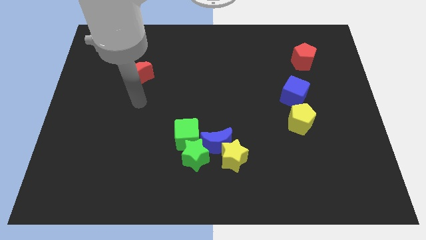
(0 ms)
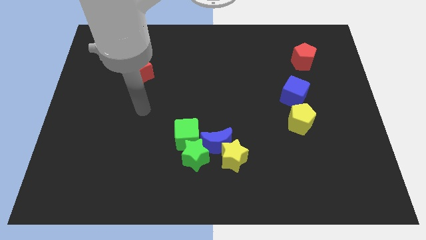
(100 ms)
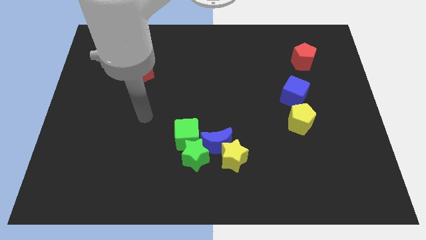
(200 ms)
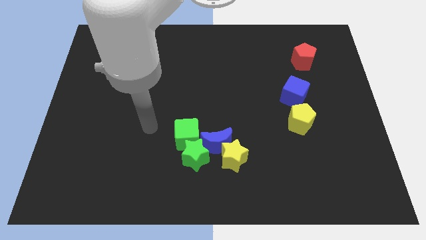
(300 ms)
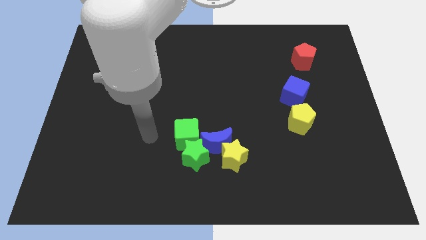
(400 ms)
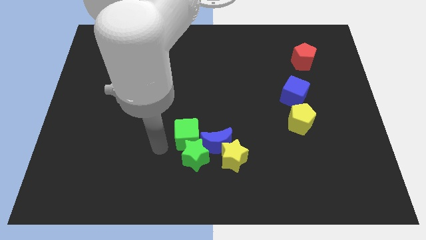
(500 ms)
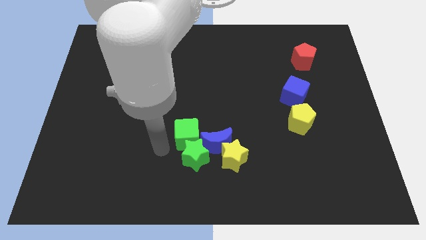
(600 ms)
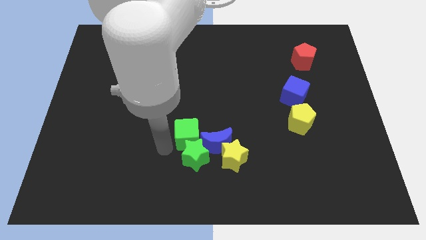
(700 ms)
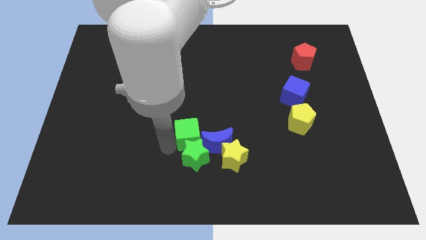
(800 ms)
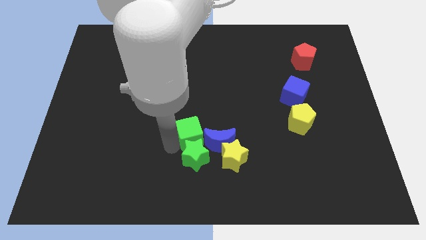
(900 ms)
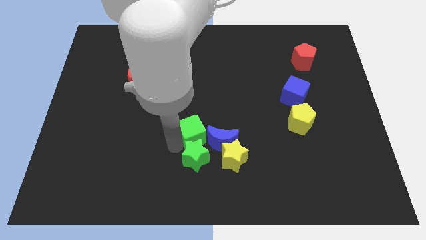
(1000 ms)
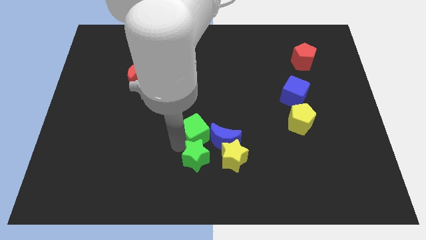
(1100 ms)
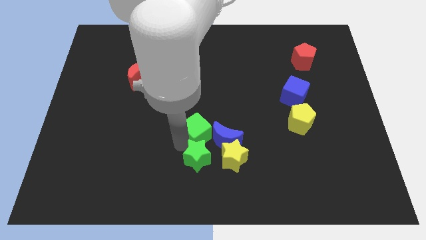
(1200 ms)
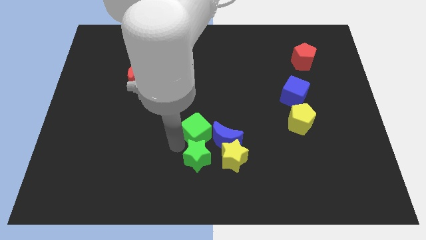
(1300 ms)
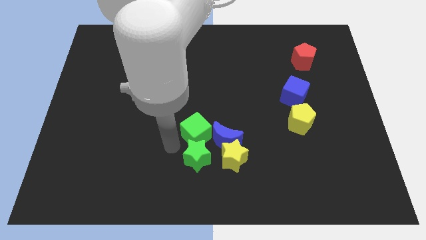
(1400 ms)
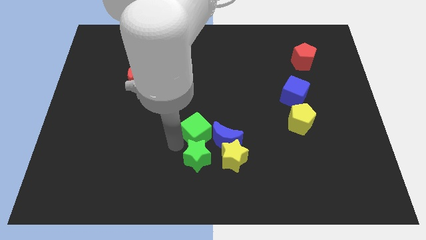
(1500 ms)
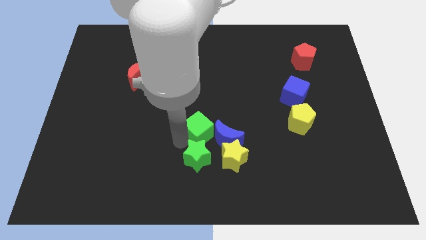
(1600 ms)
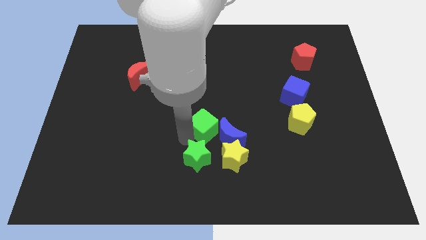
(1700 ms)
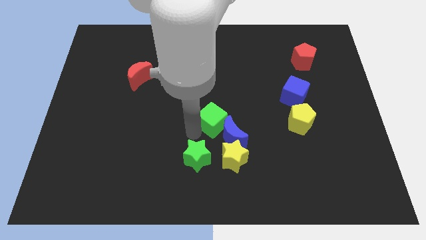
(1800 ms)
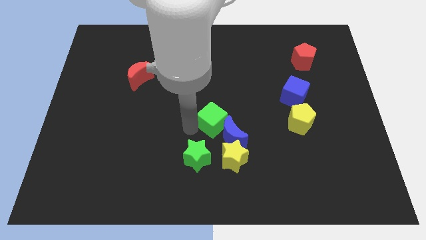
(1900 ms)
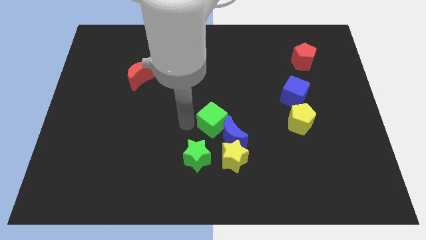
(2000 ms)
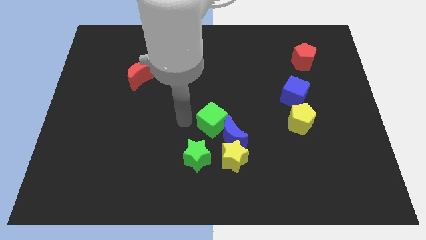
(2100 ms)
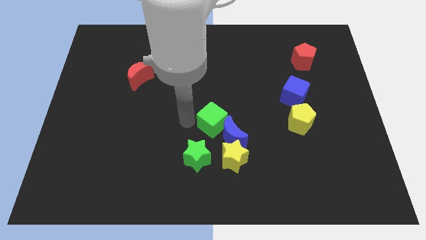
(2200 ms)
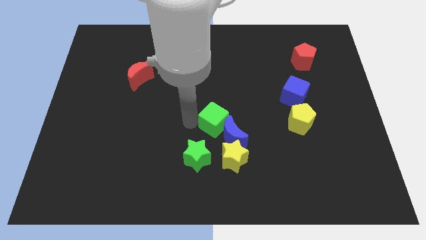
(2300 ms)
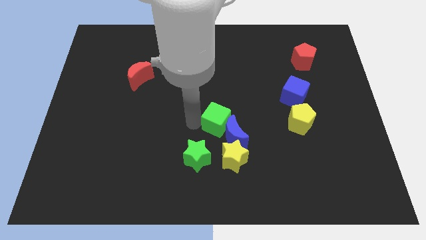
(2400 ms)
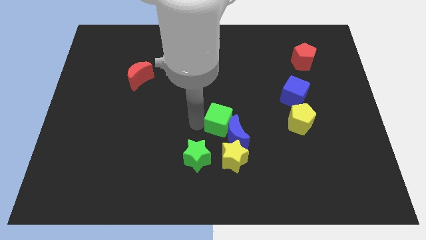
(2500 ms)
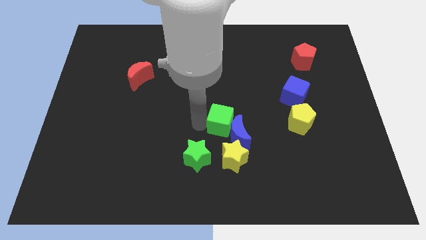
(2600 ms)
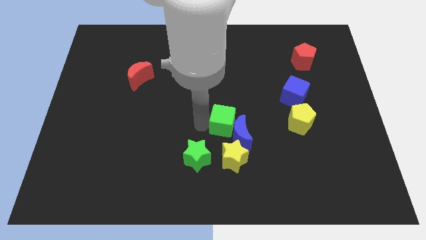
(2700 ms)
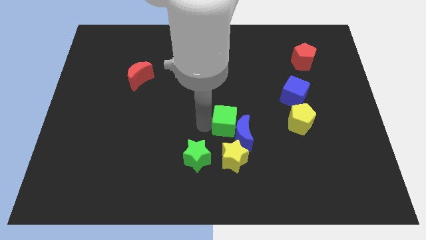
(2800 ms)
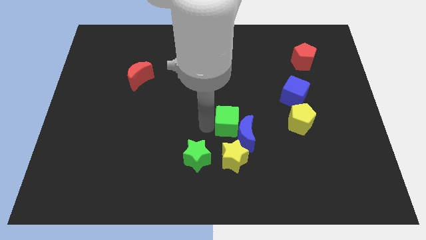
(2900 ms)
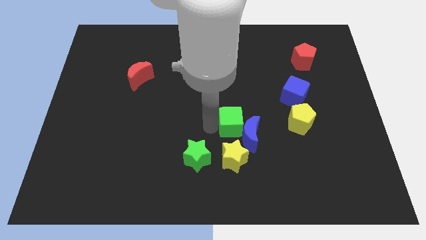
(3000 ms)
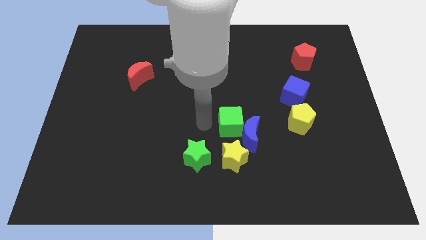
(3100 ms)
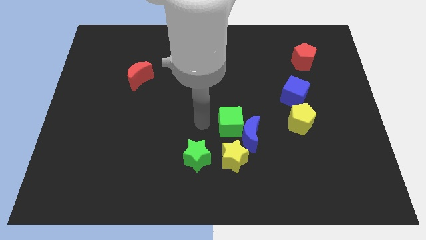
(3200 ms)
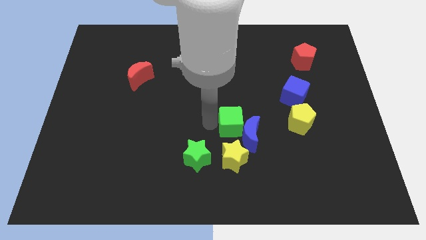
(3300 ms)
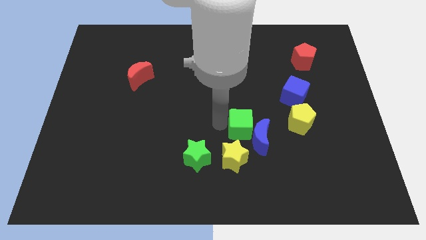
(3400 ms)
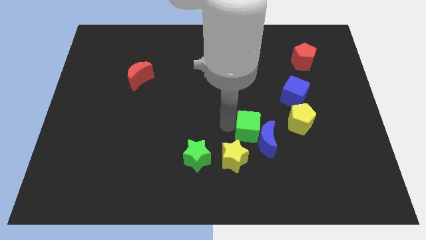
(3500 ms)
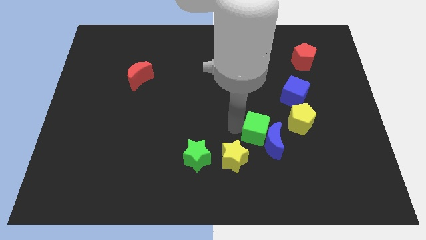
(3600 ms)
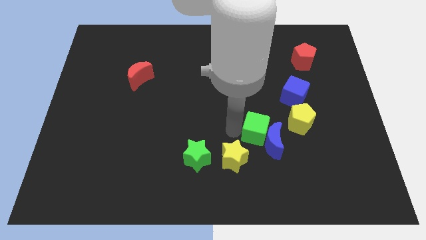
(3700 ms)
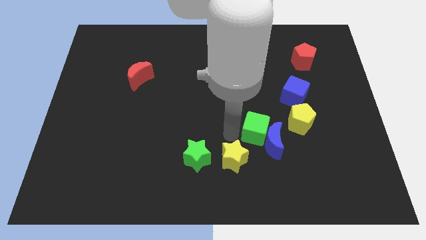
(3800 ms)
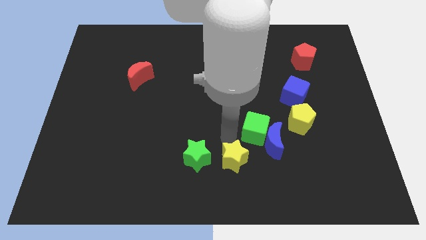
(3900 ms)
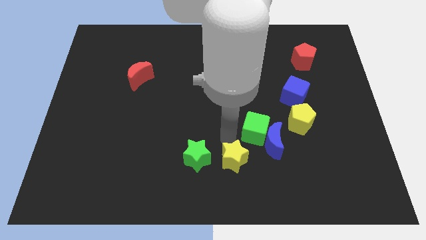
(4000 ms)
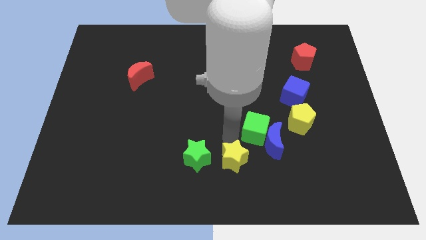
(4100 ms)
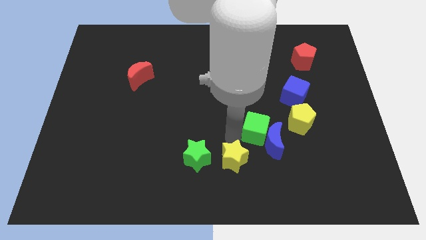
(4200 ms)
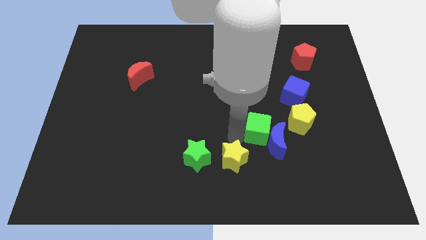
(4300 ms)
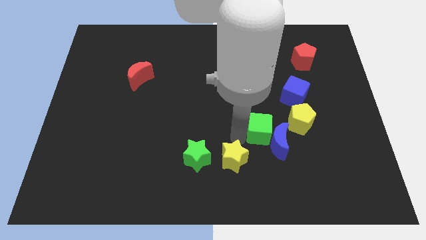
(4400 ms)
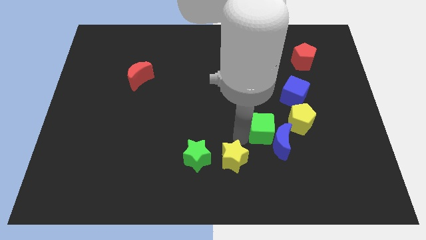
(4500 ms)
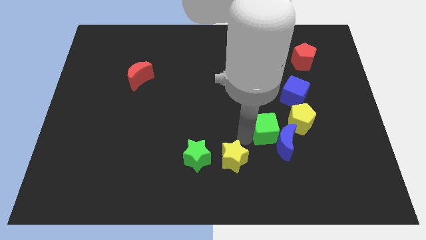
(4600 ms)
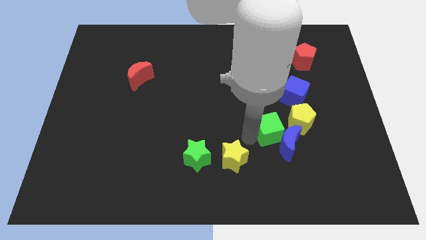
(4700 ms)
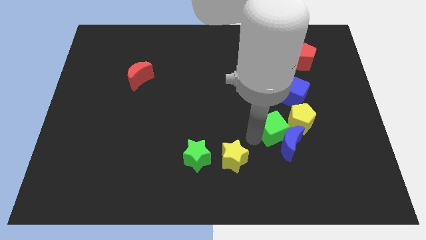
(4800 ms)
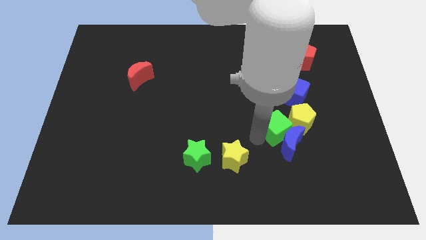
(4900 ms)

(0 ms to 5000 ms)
move the green cube towards the yellow pentagon

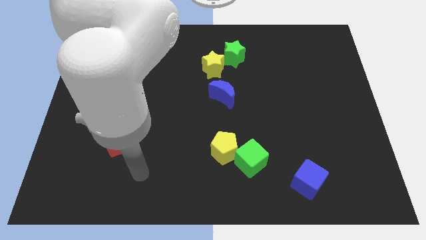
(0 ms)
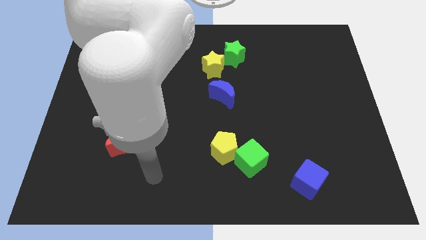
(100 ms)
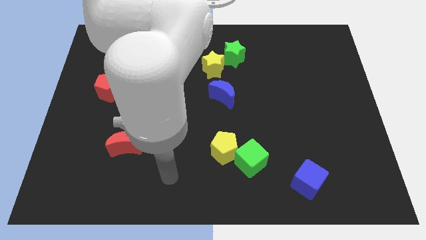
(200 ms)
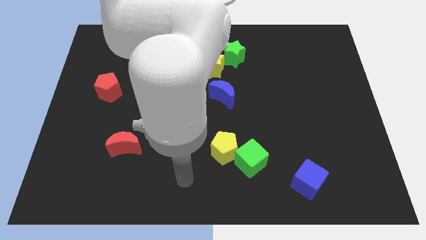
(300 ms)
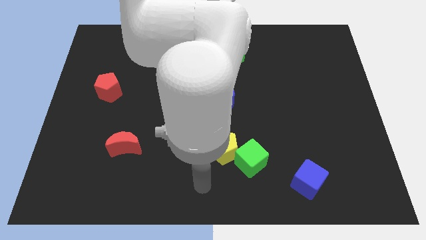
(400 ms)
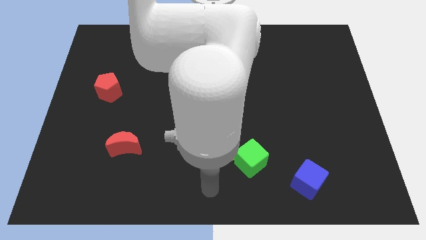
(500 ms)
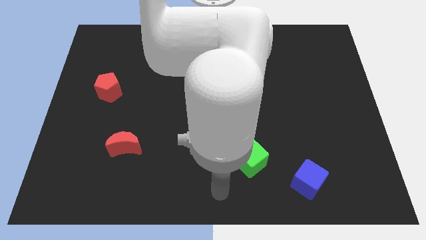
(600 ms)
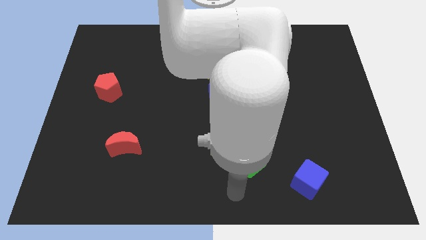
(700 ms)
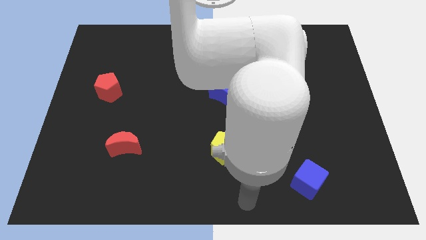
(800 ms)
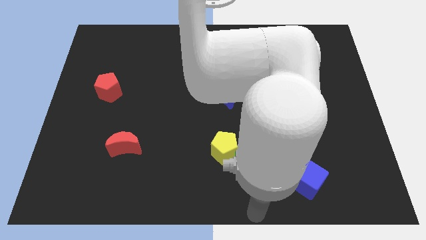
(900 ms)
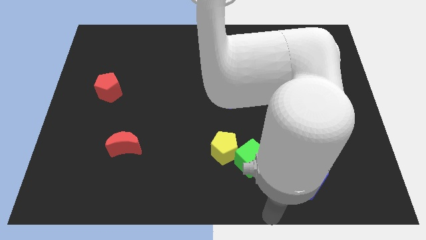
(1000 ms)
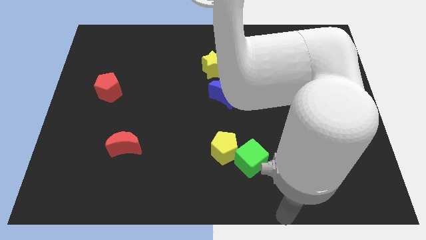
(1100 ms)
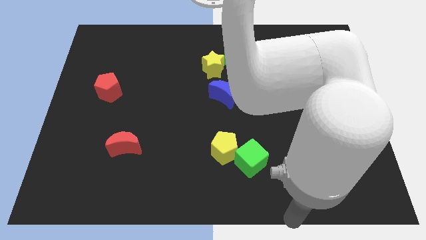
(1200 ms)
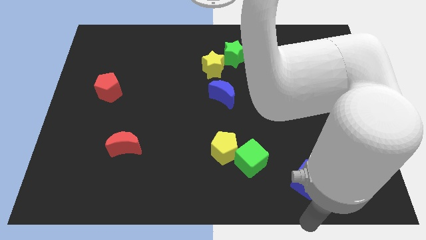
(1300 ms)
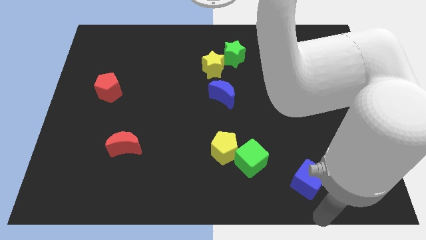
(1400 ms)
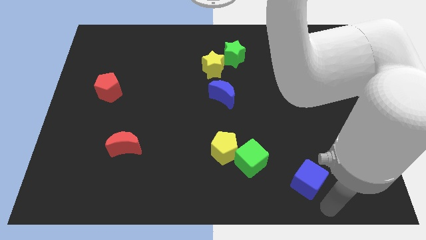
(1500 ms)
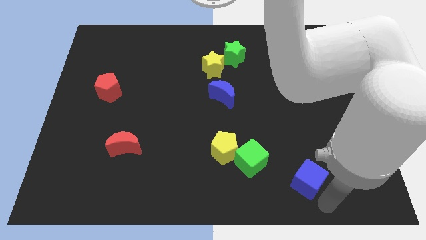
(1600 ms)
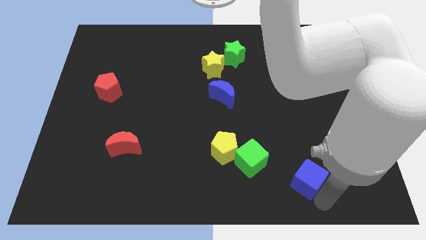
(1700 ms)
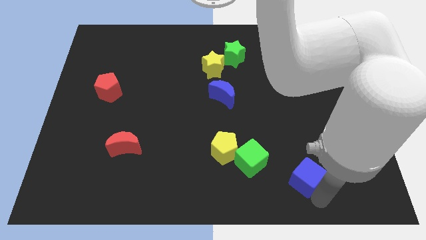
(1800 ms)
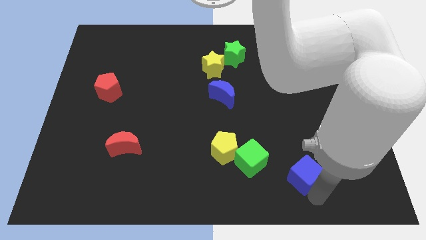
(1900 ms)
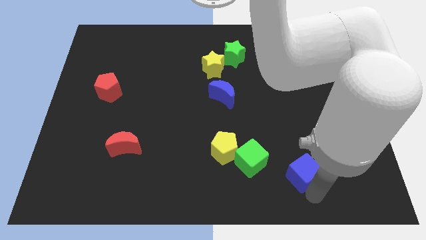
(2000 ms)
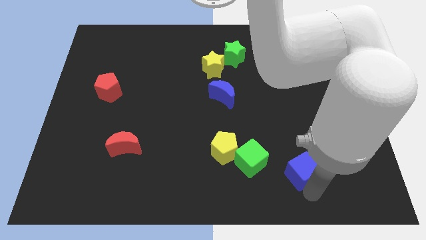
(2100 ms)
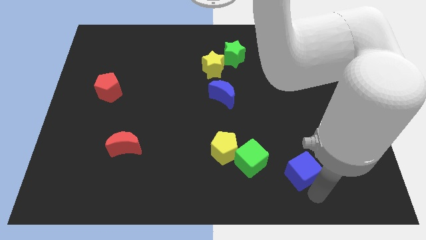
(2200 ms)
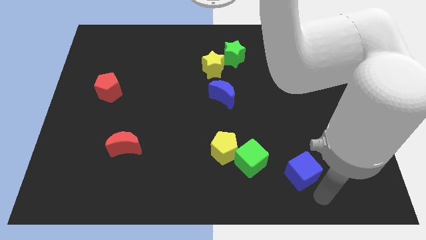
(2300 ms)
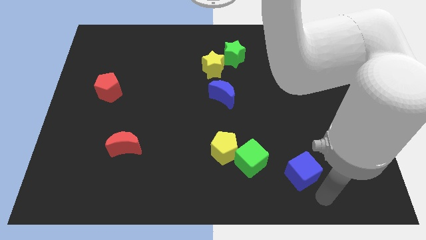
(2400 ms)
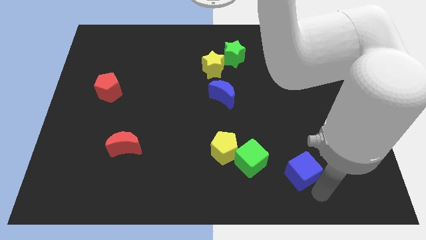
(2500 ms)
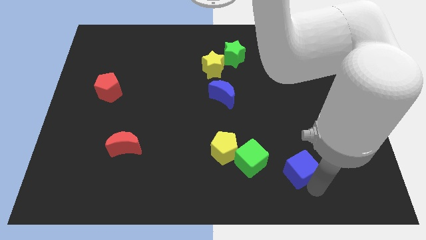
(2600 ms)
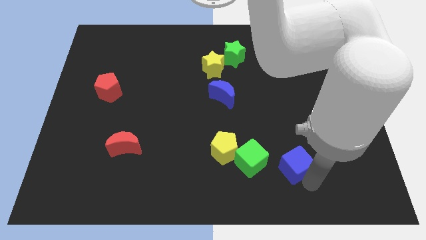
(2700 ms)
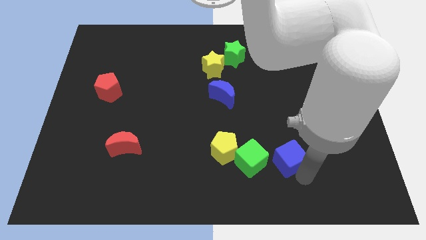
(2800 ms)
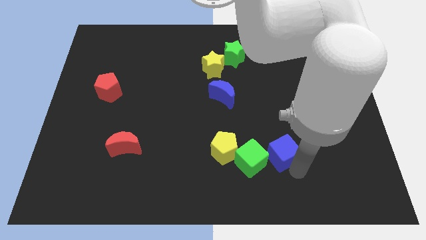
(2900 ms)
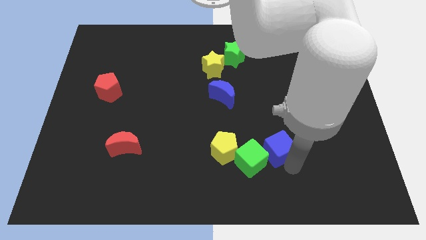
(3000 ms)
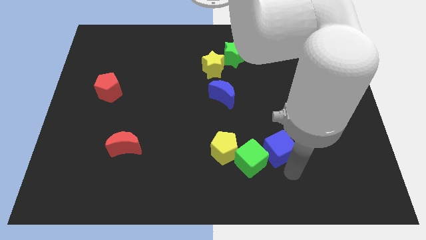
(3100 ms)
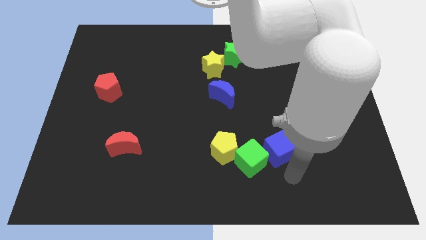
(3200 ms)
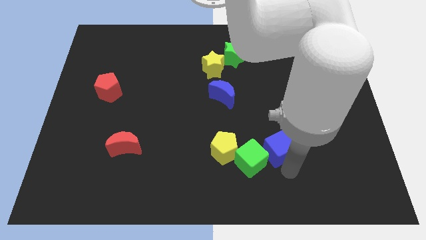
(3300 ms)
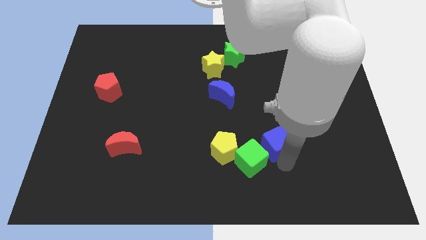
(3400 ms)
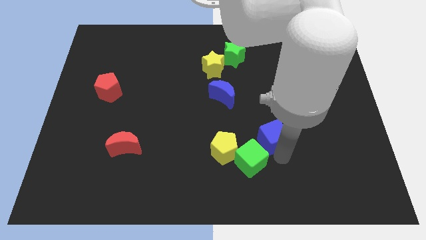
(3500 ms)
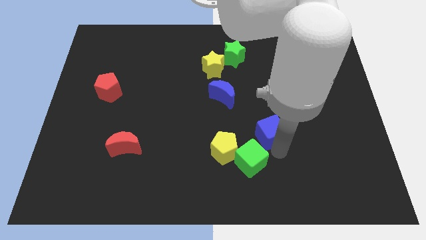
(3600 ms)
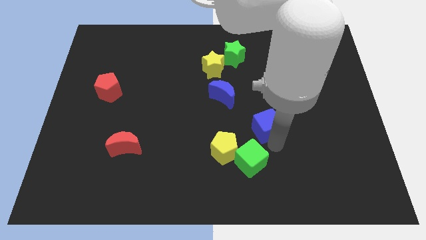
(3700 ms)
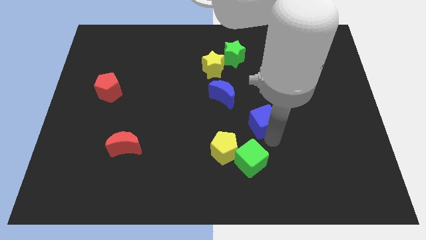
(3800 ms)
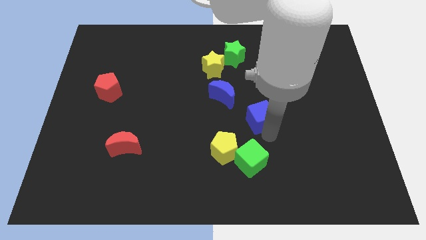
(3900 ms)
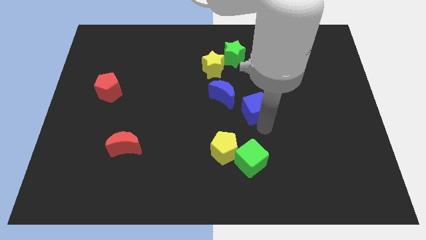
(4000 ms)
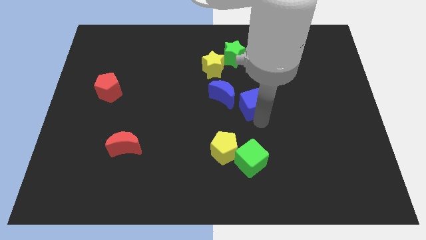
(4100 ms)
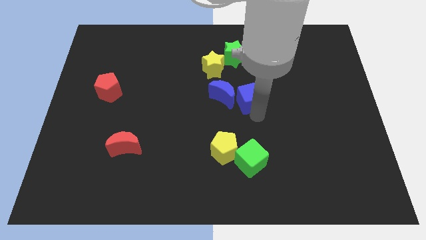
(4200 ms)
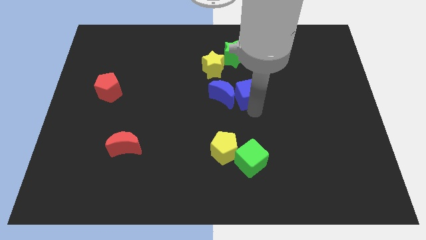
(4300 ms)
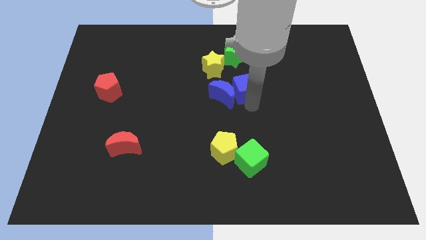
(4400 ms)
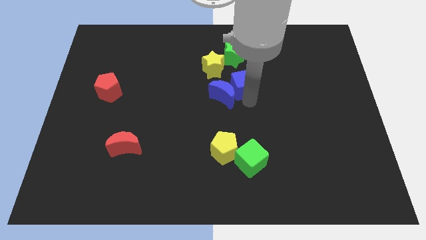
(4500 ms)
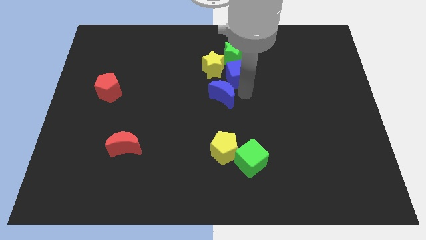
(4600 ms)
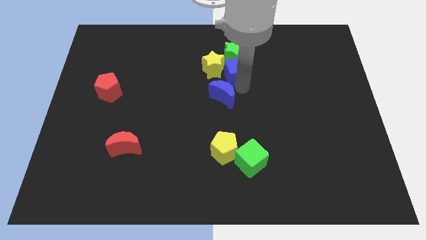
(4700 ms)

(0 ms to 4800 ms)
slide the blue cube to the green star
